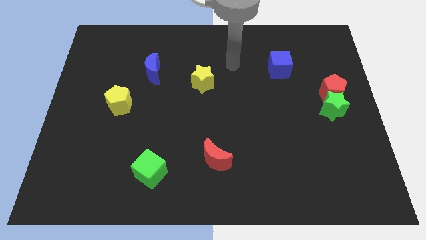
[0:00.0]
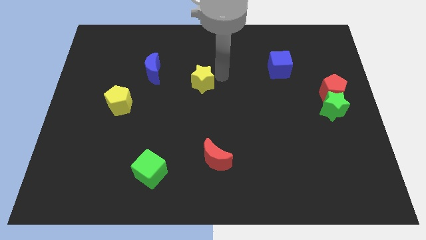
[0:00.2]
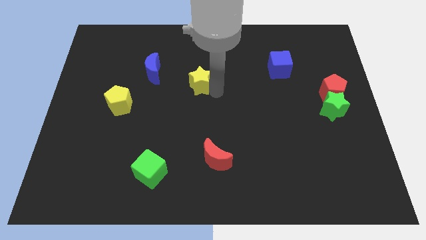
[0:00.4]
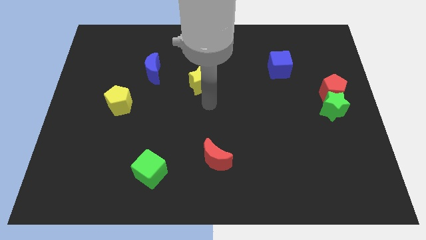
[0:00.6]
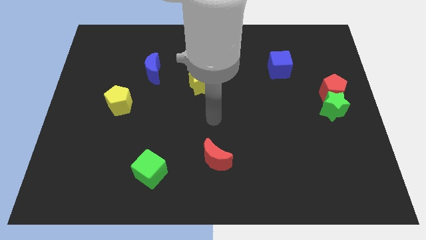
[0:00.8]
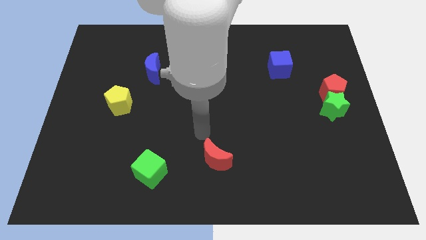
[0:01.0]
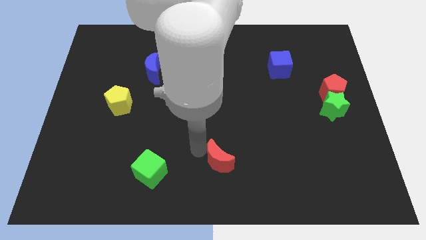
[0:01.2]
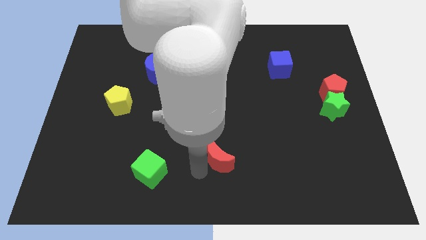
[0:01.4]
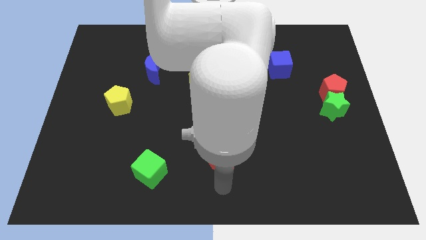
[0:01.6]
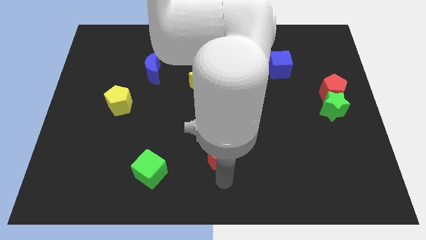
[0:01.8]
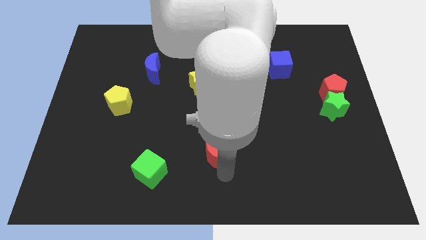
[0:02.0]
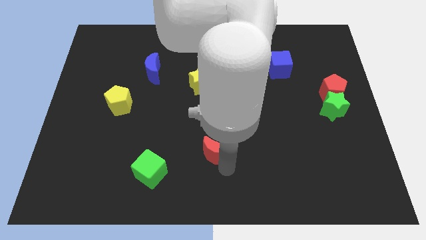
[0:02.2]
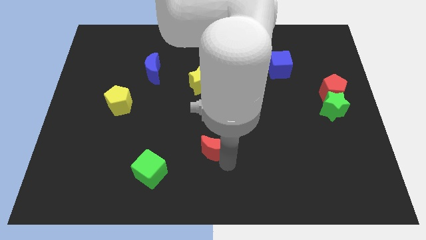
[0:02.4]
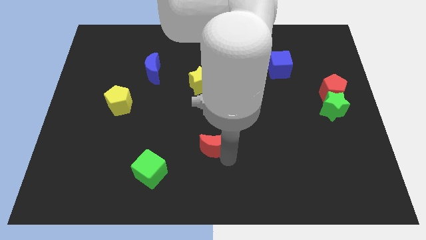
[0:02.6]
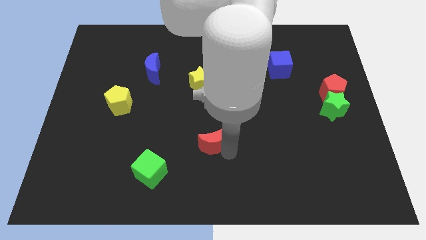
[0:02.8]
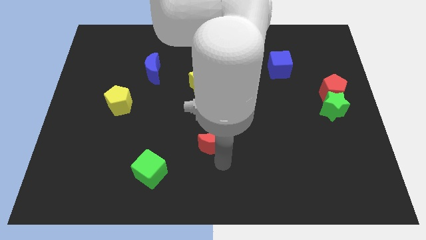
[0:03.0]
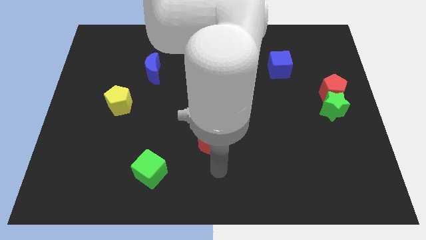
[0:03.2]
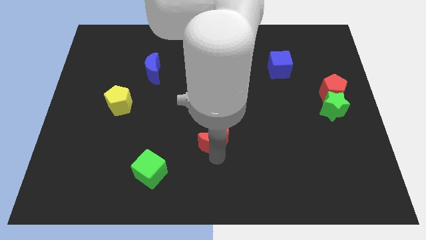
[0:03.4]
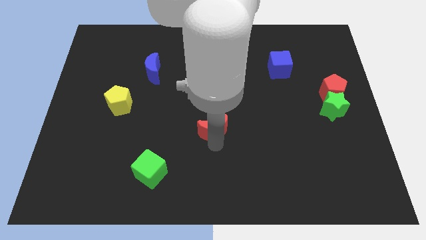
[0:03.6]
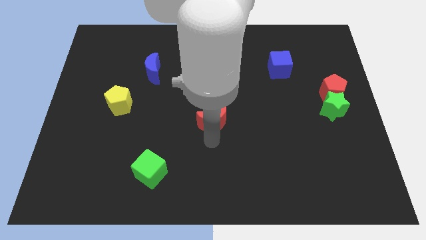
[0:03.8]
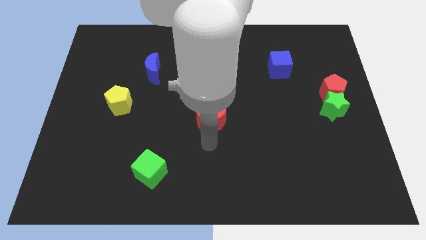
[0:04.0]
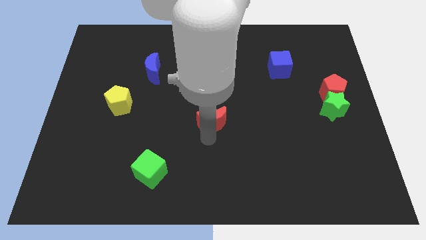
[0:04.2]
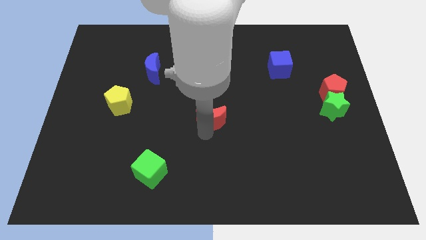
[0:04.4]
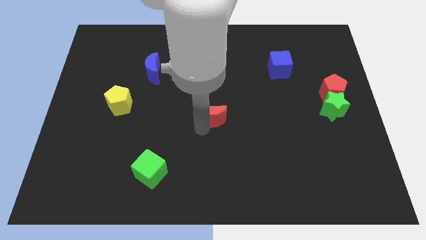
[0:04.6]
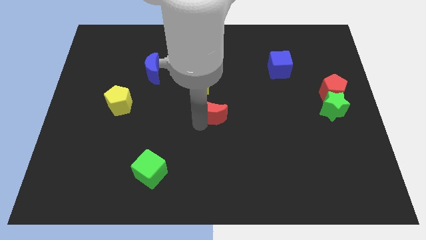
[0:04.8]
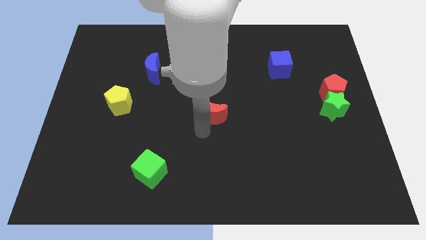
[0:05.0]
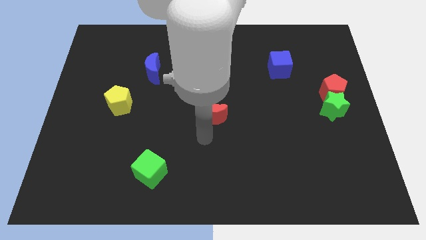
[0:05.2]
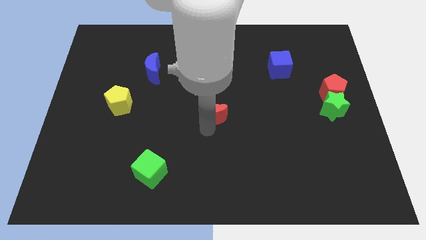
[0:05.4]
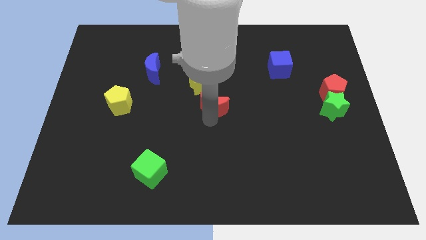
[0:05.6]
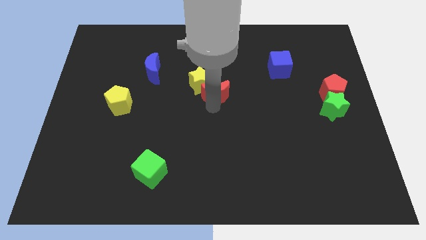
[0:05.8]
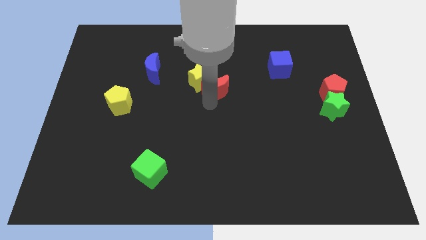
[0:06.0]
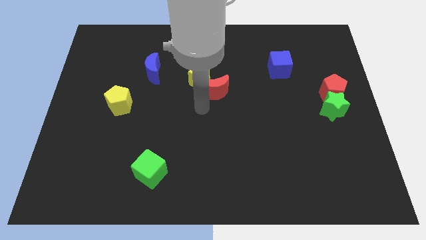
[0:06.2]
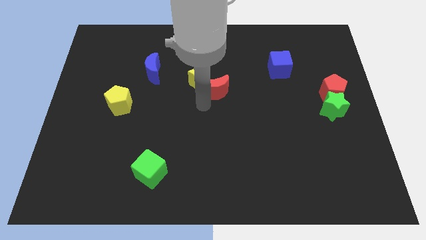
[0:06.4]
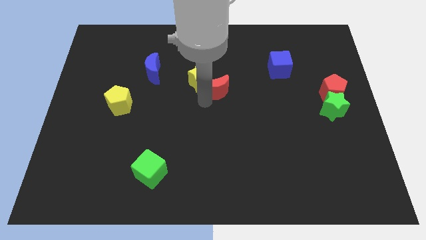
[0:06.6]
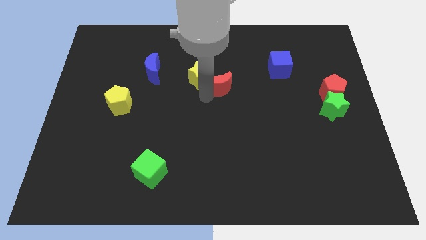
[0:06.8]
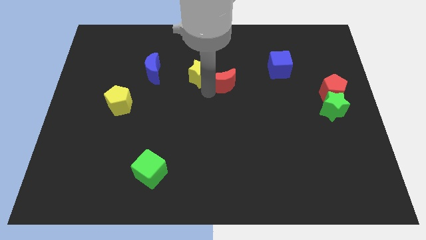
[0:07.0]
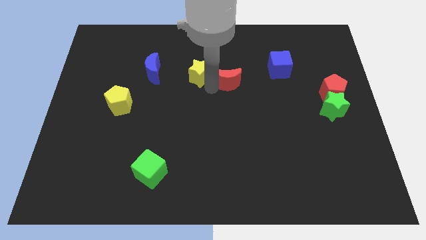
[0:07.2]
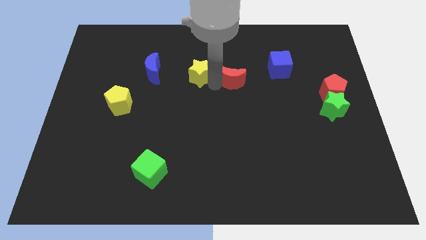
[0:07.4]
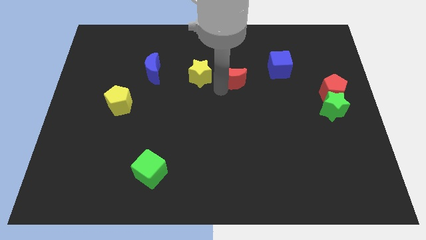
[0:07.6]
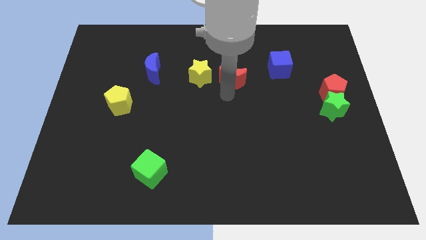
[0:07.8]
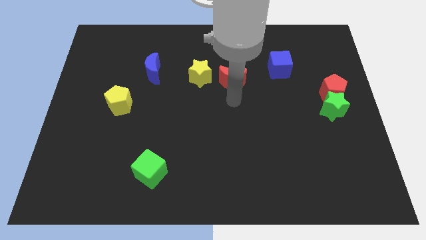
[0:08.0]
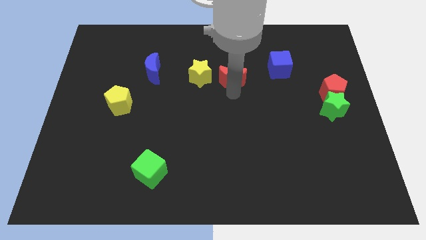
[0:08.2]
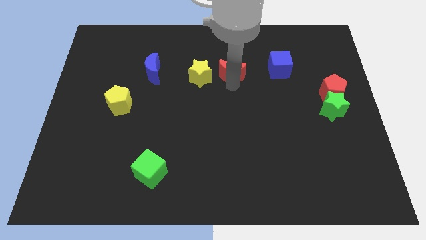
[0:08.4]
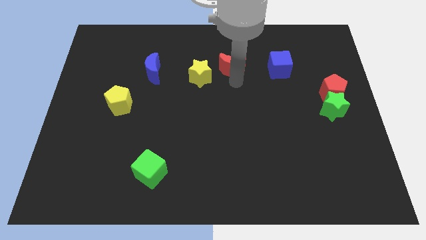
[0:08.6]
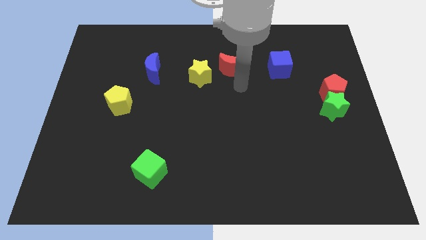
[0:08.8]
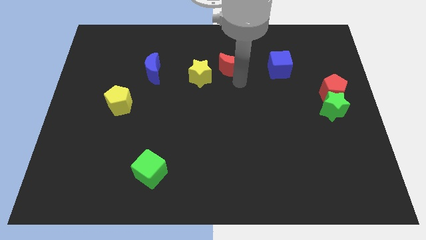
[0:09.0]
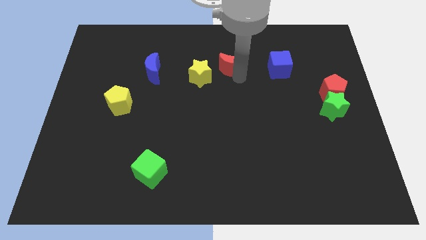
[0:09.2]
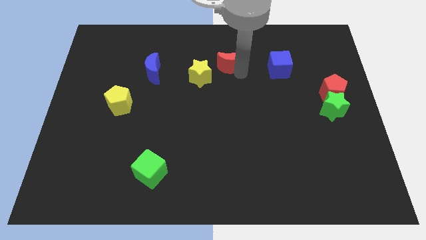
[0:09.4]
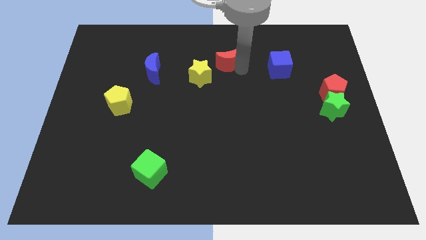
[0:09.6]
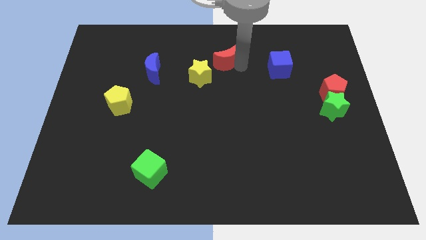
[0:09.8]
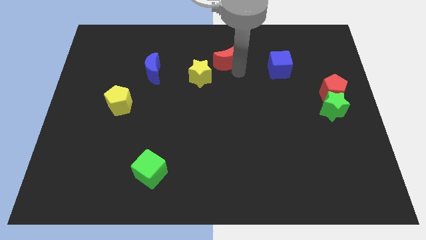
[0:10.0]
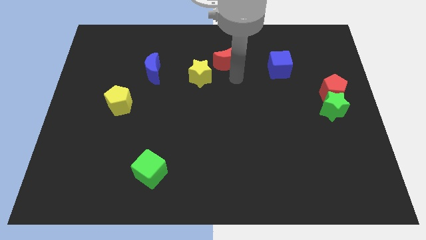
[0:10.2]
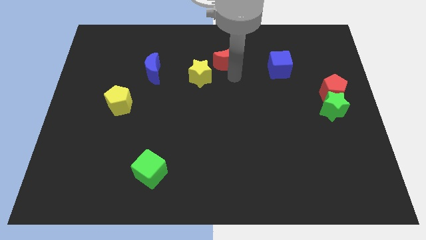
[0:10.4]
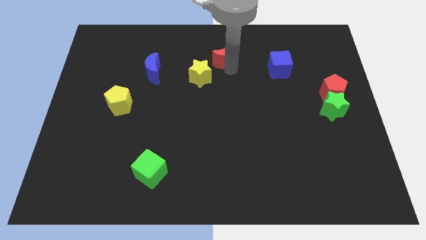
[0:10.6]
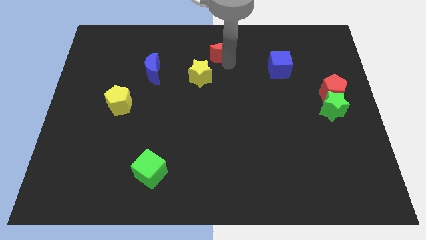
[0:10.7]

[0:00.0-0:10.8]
move the red moon to the top side
